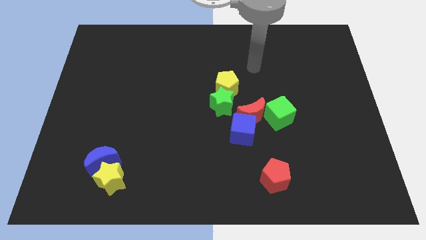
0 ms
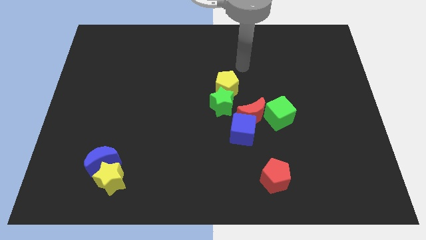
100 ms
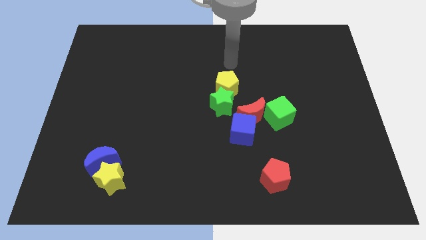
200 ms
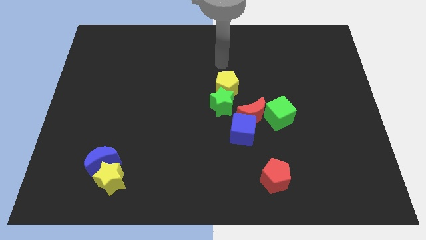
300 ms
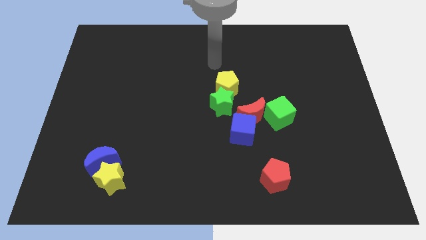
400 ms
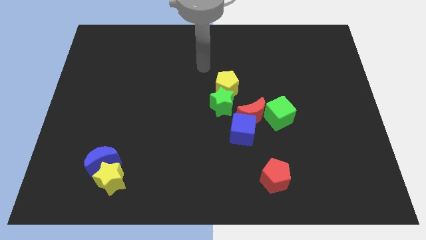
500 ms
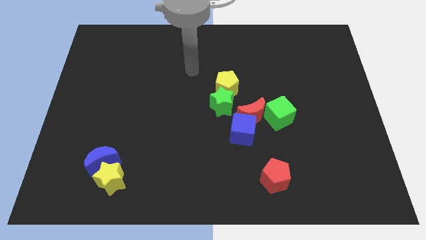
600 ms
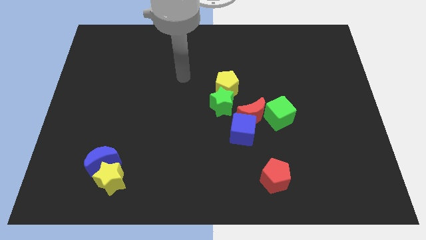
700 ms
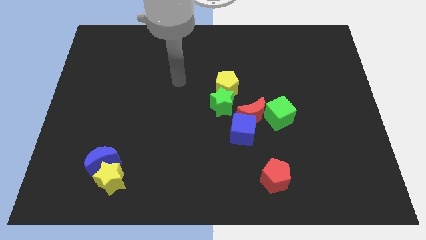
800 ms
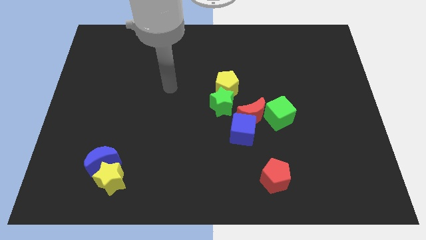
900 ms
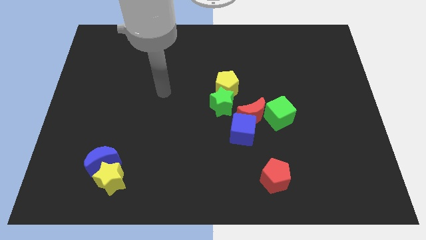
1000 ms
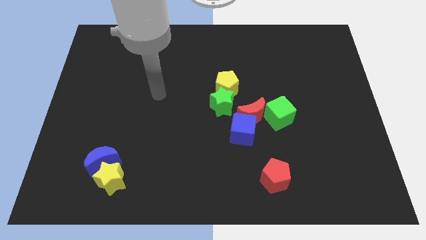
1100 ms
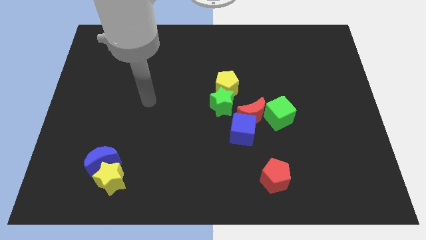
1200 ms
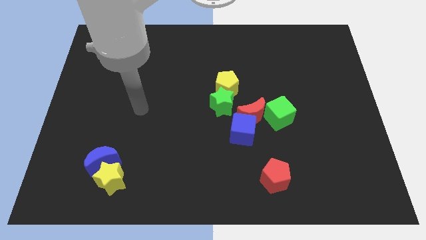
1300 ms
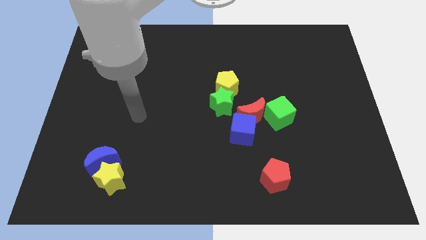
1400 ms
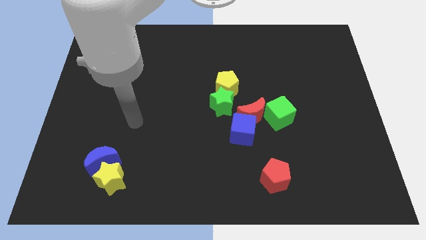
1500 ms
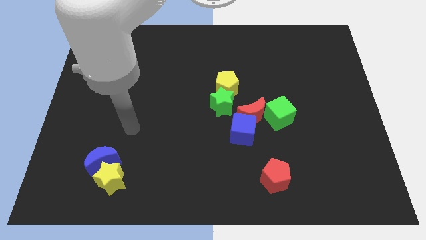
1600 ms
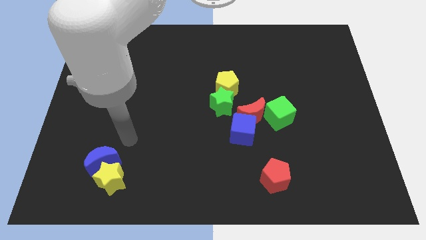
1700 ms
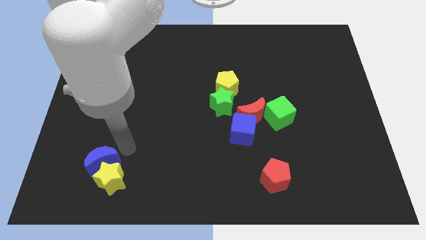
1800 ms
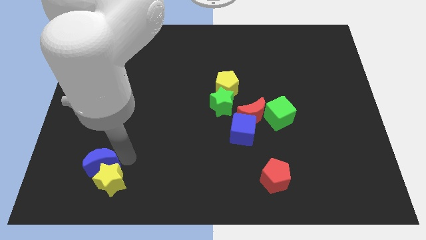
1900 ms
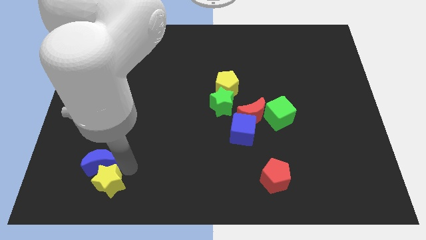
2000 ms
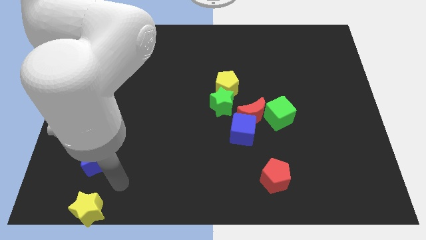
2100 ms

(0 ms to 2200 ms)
separate the blue moon from the yellow star

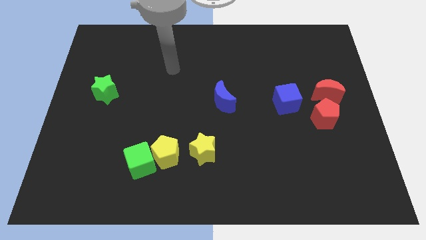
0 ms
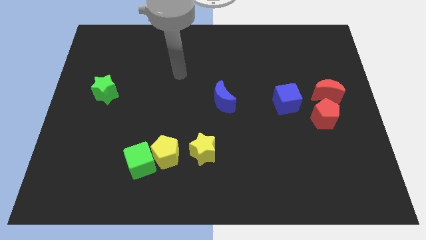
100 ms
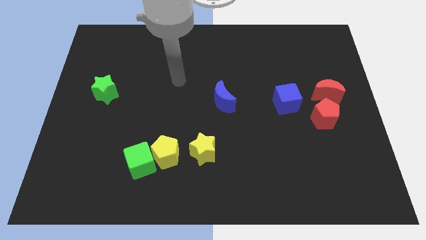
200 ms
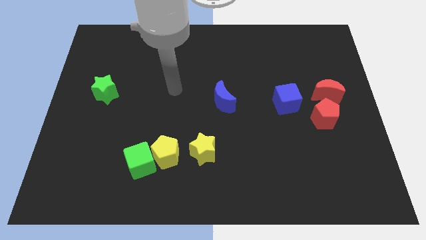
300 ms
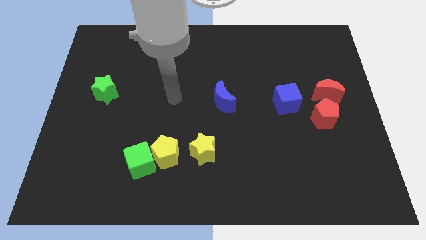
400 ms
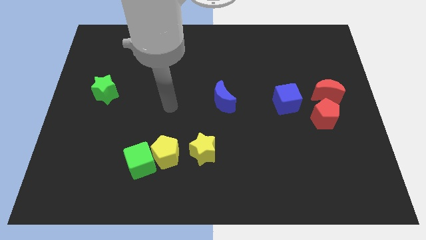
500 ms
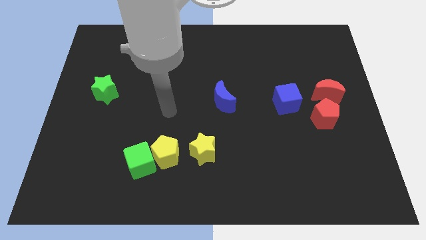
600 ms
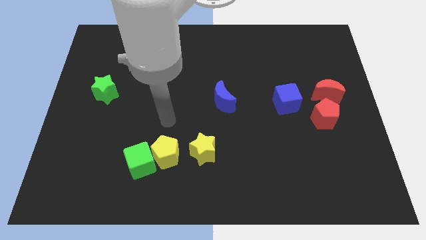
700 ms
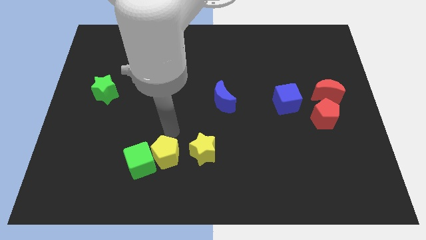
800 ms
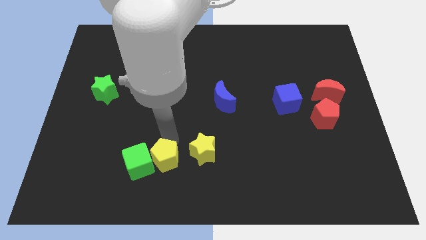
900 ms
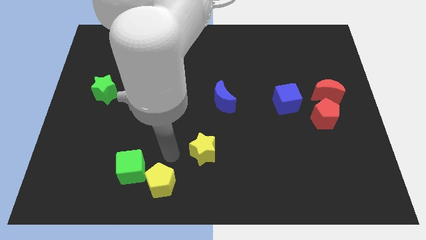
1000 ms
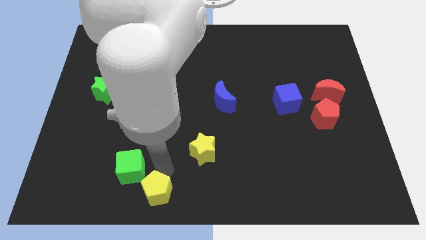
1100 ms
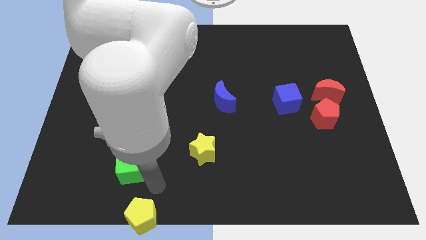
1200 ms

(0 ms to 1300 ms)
pull the green cube apart from the yellow pentagon

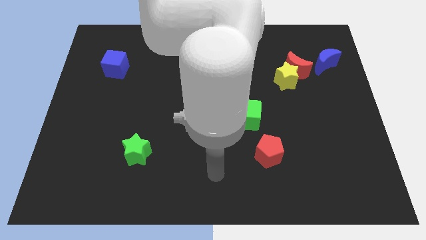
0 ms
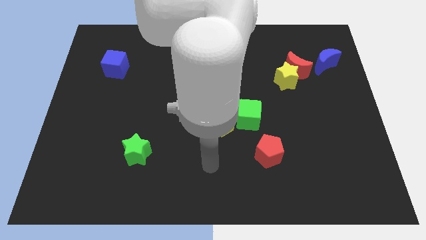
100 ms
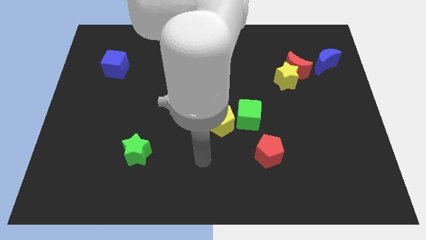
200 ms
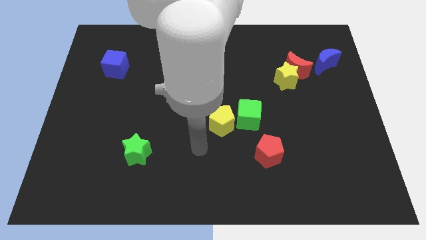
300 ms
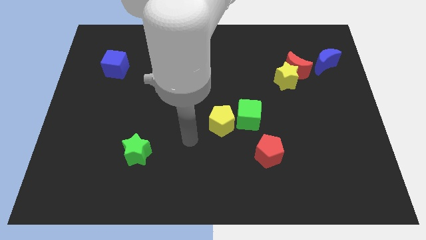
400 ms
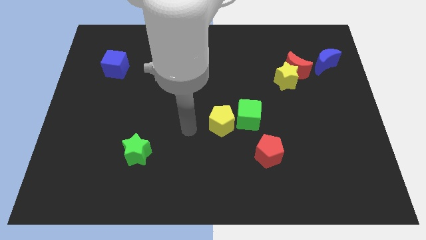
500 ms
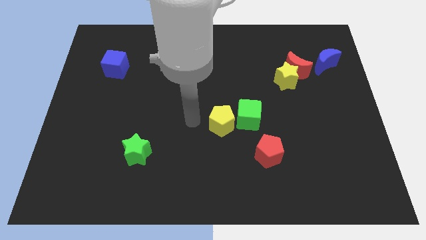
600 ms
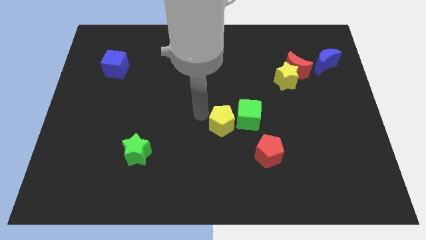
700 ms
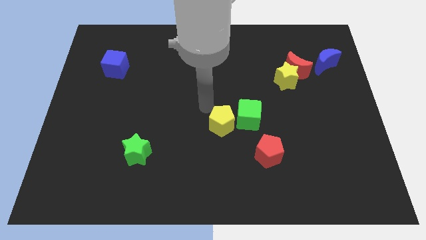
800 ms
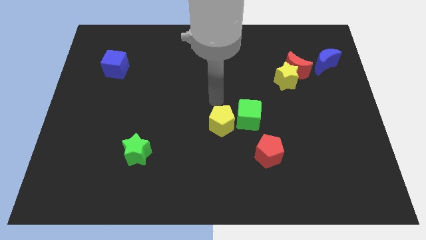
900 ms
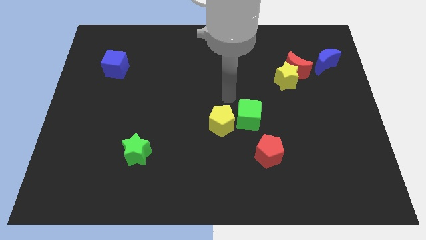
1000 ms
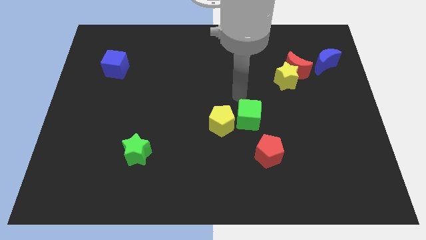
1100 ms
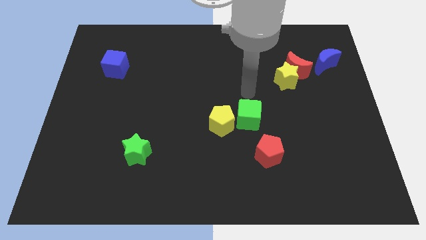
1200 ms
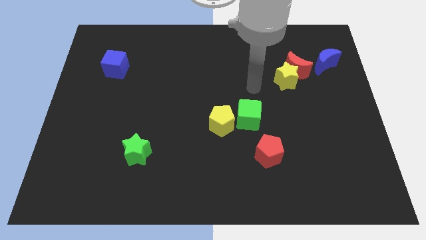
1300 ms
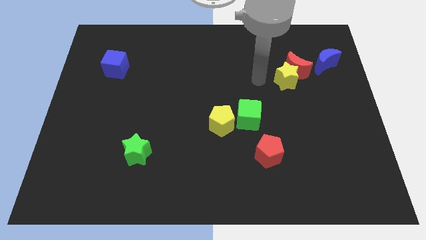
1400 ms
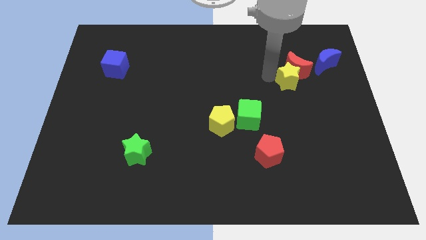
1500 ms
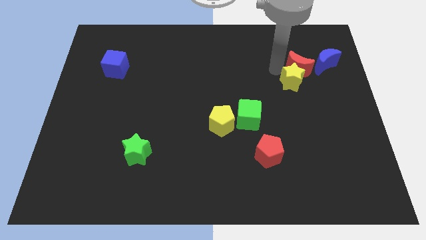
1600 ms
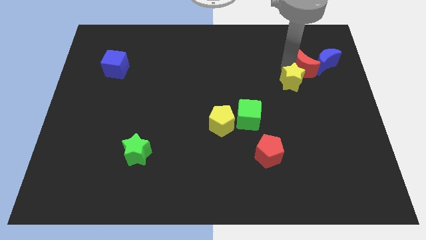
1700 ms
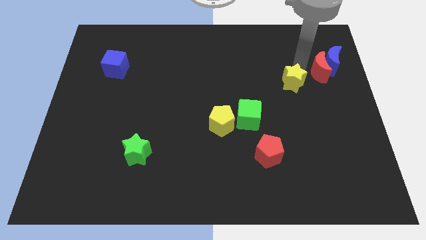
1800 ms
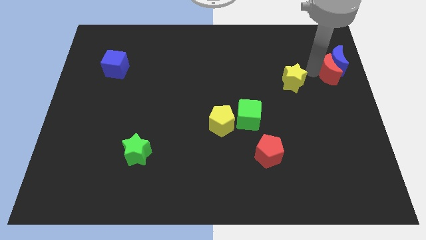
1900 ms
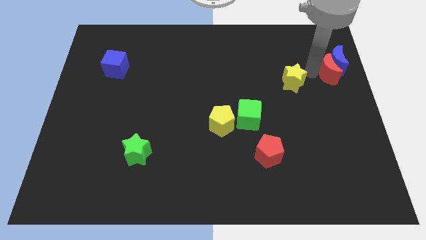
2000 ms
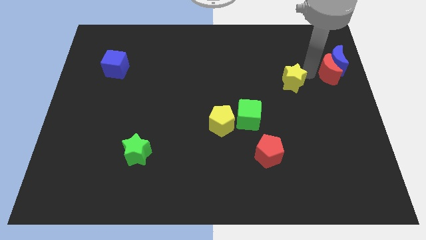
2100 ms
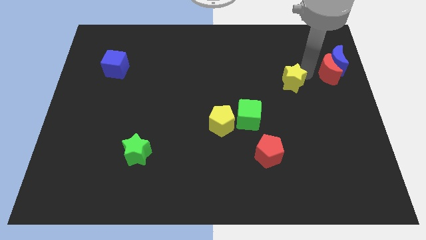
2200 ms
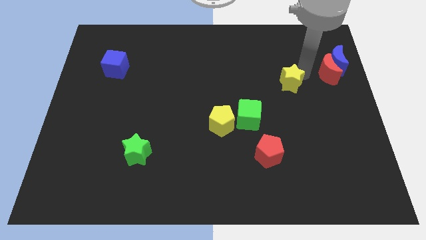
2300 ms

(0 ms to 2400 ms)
separate the yellow star from the red moon

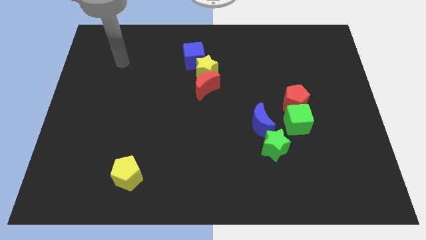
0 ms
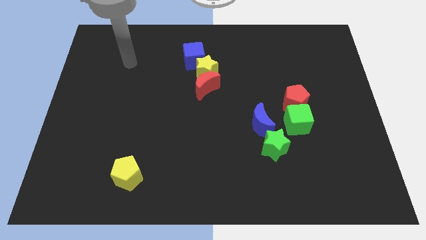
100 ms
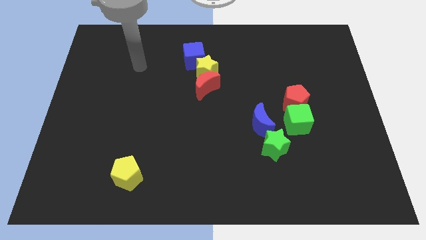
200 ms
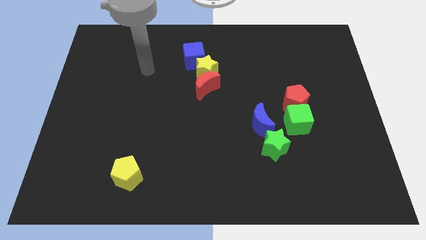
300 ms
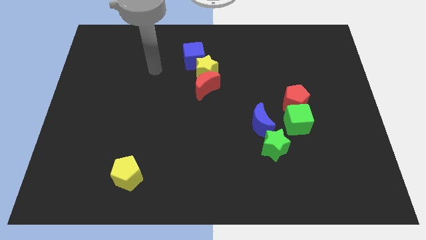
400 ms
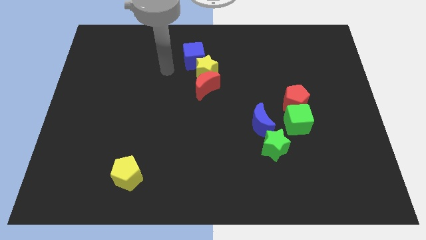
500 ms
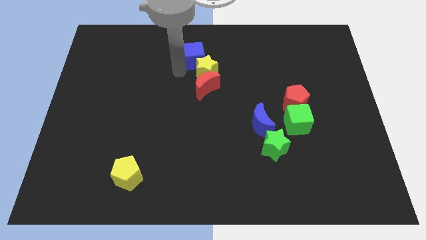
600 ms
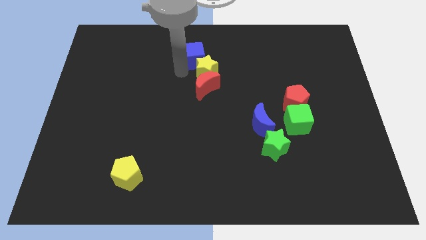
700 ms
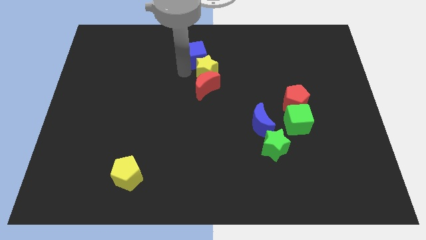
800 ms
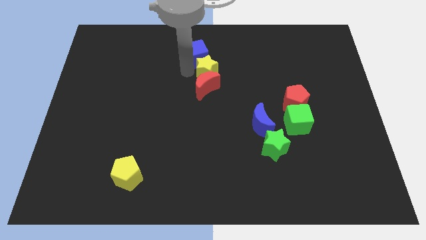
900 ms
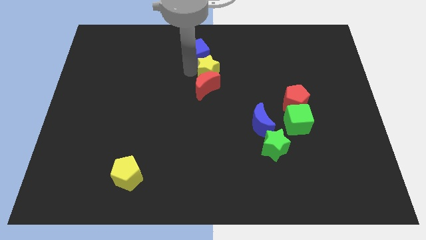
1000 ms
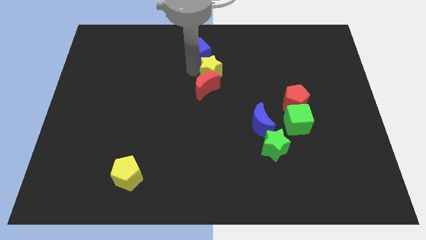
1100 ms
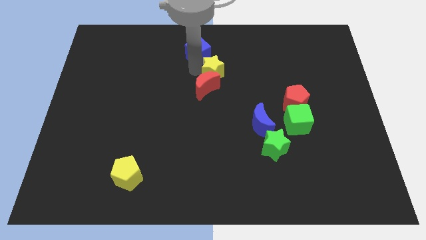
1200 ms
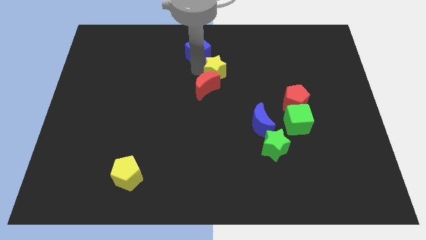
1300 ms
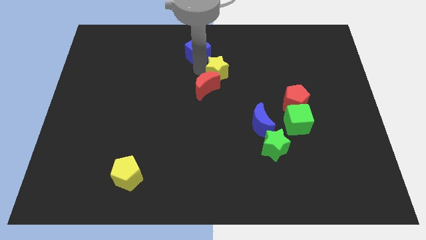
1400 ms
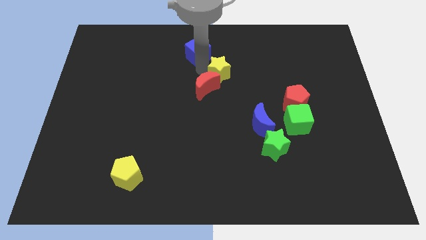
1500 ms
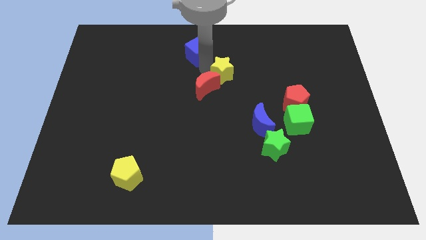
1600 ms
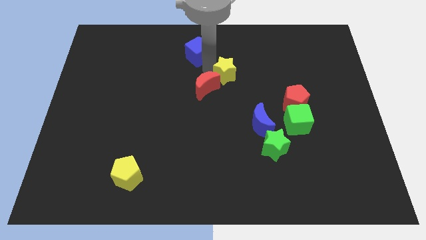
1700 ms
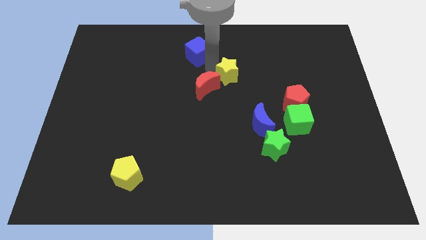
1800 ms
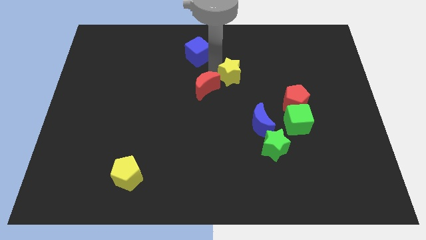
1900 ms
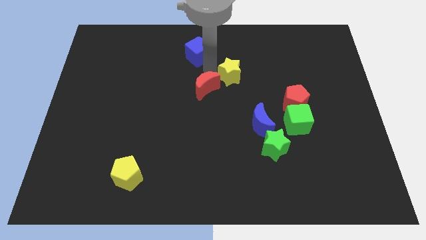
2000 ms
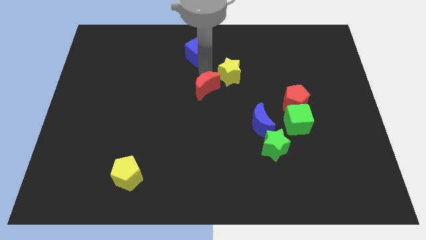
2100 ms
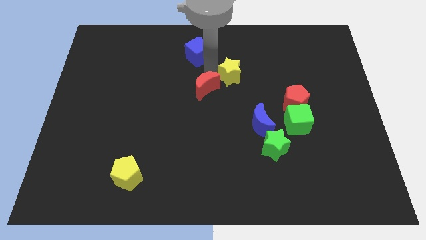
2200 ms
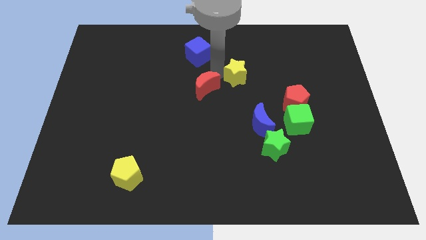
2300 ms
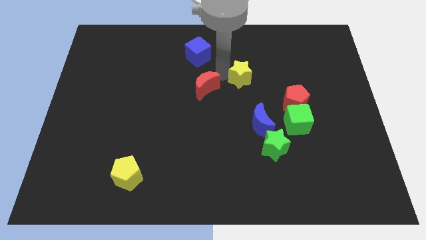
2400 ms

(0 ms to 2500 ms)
pull the yellow star apart from the red moon and blue cube

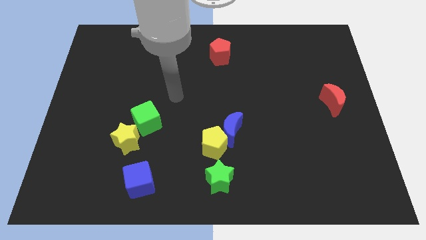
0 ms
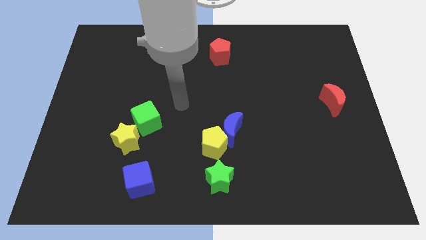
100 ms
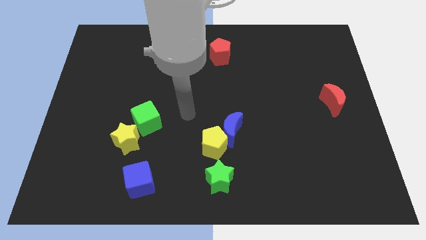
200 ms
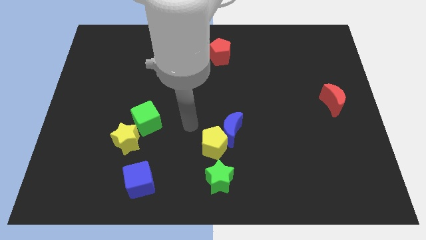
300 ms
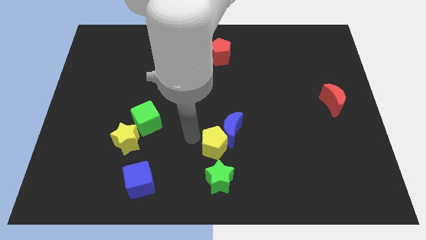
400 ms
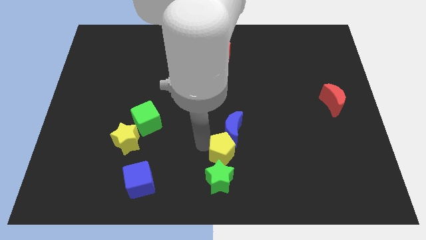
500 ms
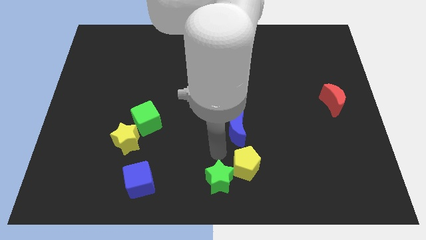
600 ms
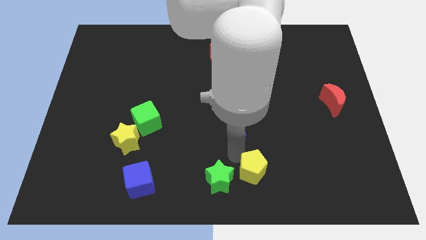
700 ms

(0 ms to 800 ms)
move the blue moon away from the yellow pentagon

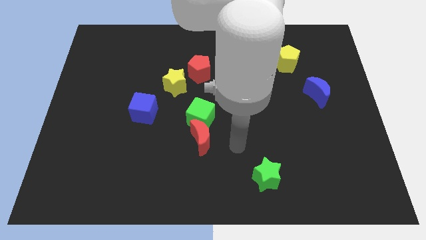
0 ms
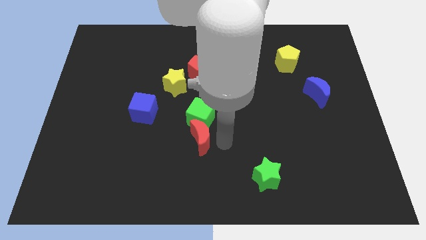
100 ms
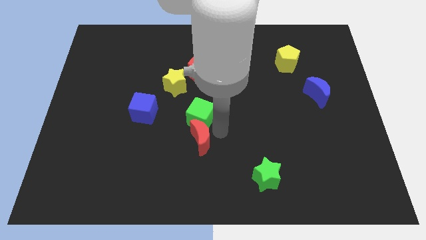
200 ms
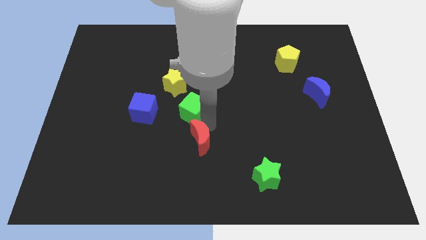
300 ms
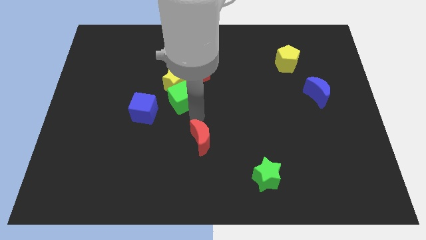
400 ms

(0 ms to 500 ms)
pull the red moon apart from the green cube
